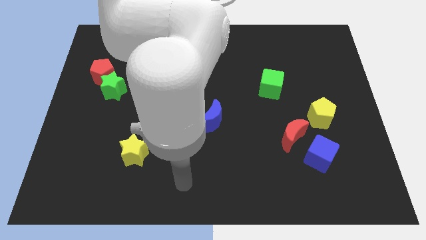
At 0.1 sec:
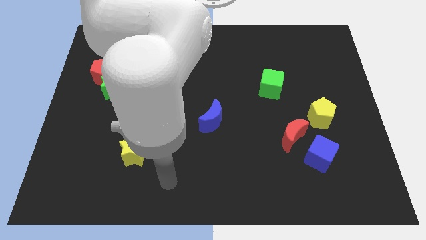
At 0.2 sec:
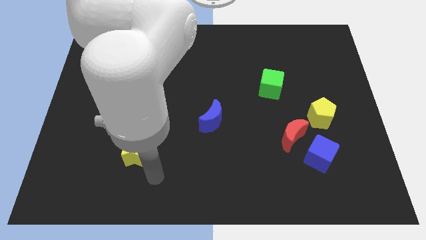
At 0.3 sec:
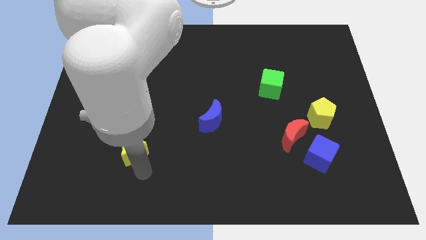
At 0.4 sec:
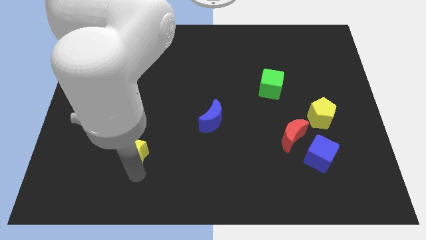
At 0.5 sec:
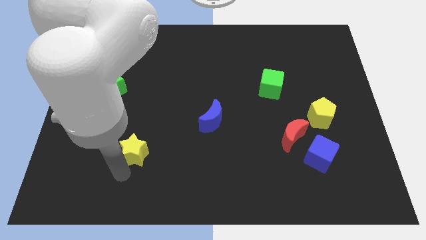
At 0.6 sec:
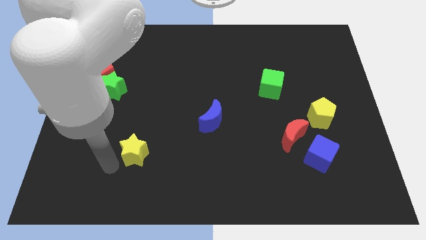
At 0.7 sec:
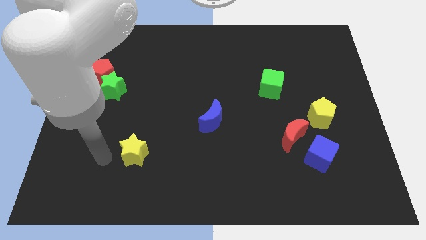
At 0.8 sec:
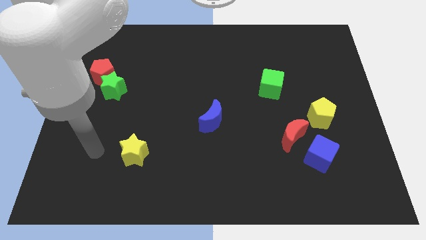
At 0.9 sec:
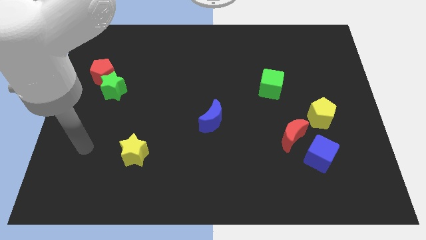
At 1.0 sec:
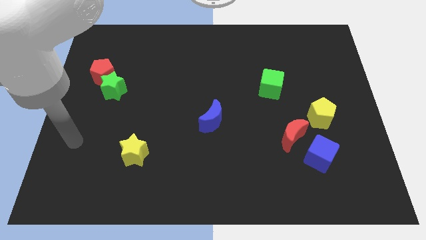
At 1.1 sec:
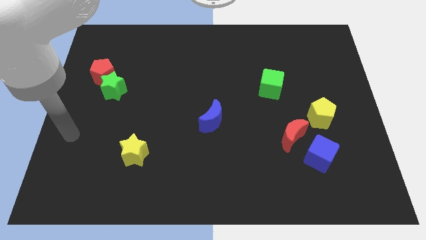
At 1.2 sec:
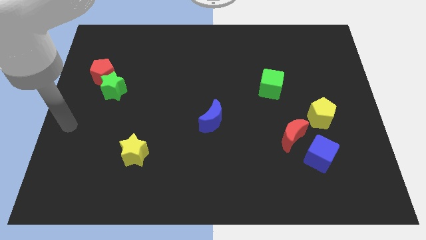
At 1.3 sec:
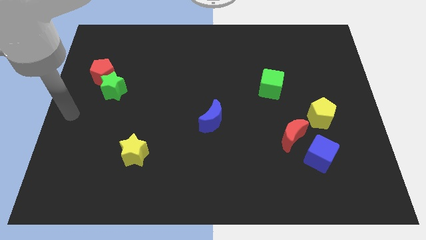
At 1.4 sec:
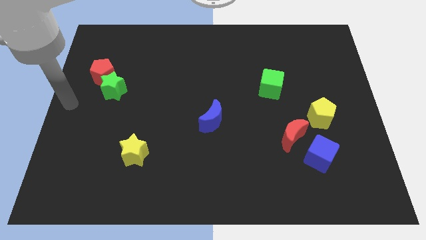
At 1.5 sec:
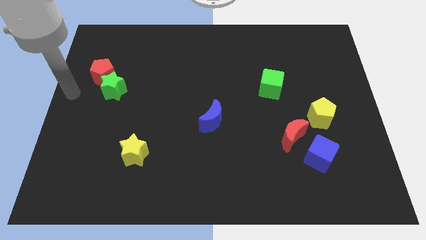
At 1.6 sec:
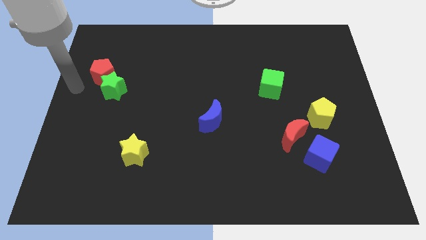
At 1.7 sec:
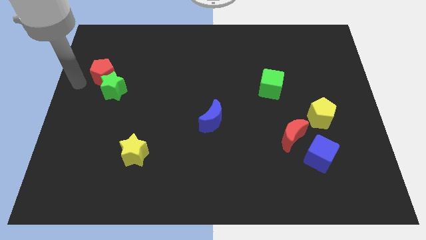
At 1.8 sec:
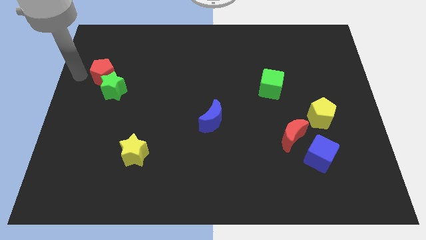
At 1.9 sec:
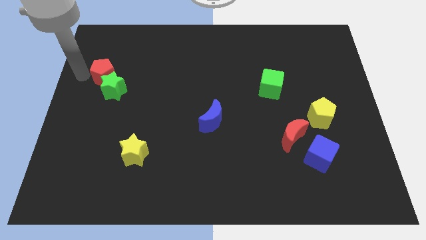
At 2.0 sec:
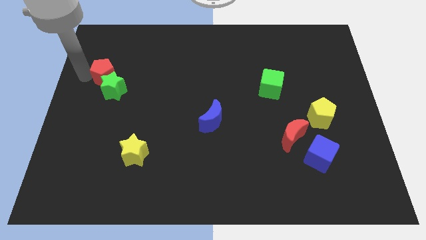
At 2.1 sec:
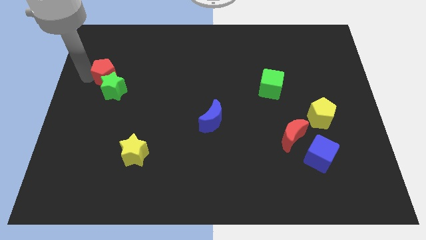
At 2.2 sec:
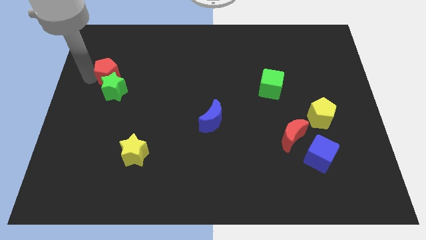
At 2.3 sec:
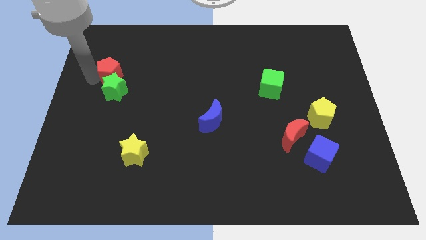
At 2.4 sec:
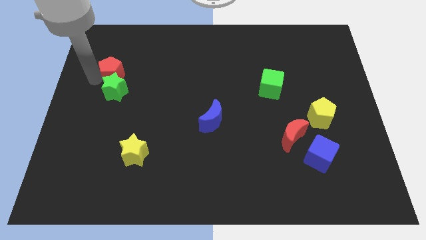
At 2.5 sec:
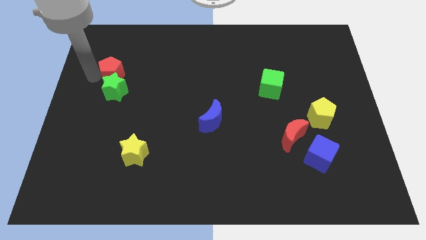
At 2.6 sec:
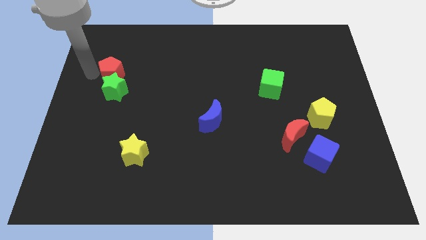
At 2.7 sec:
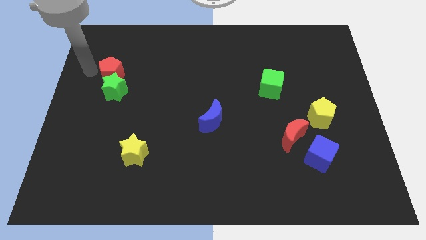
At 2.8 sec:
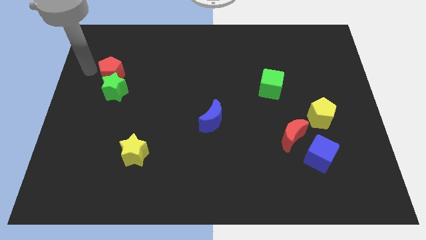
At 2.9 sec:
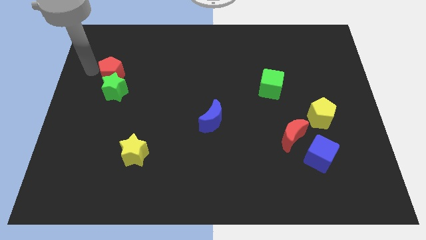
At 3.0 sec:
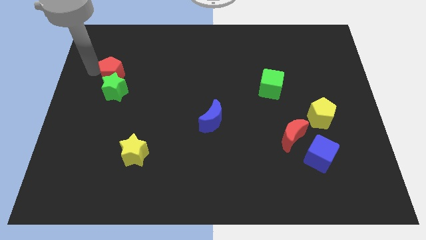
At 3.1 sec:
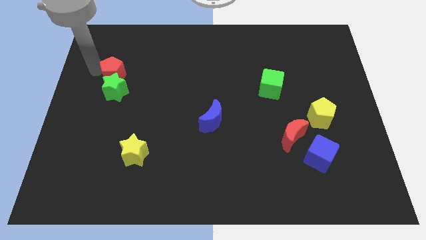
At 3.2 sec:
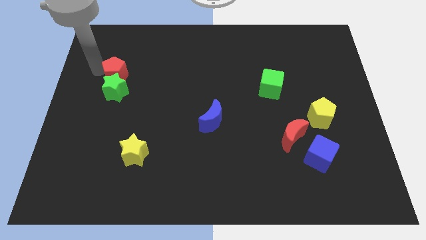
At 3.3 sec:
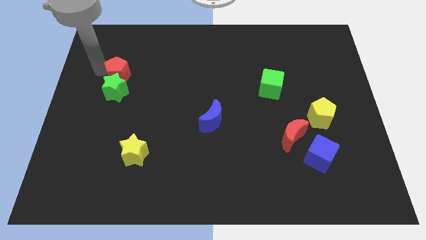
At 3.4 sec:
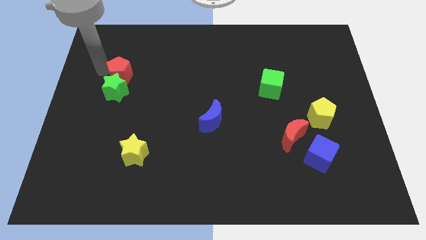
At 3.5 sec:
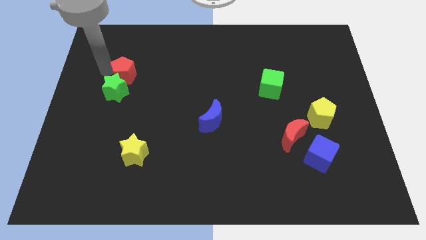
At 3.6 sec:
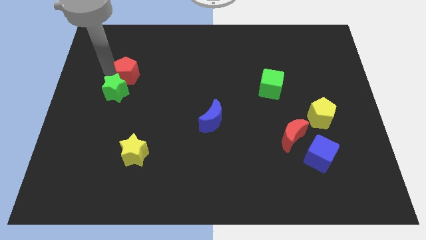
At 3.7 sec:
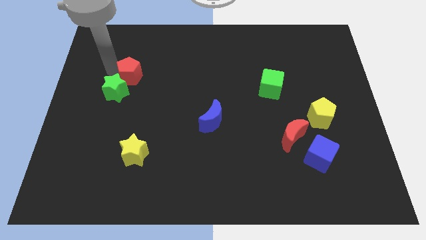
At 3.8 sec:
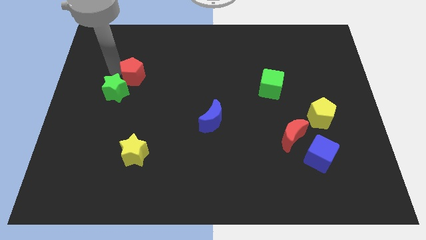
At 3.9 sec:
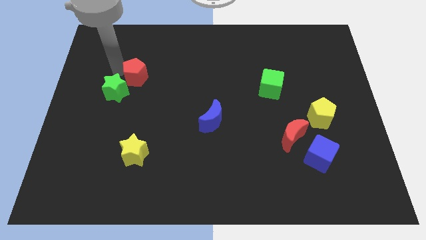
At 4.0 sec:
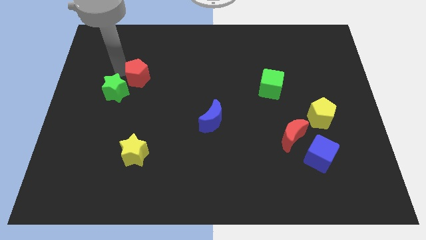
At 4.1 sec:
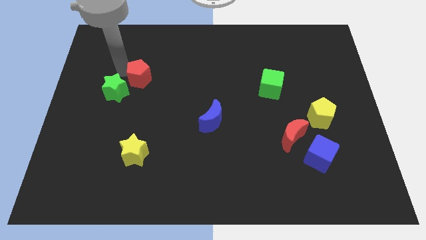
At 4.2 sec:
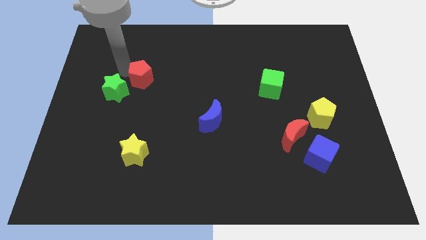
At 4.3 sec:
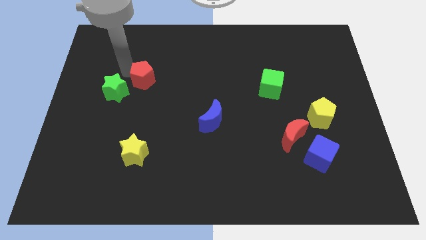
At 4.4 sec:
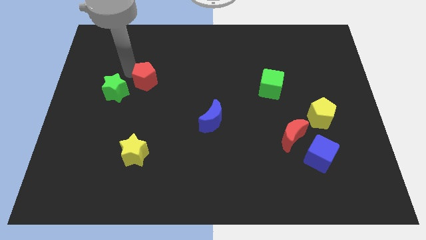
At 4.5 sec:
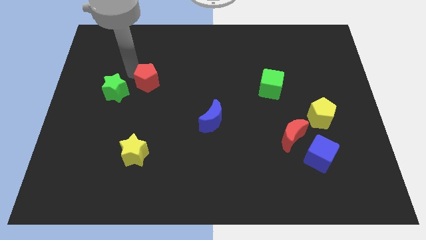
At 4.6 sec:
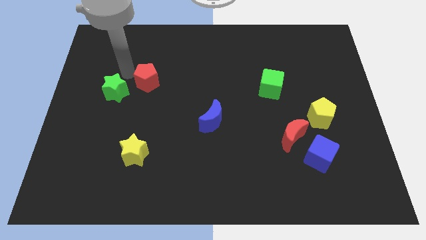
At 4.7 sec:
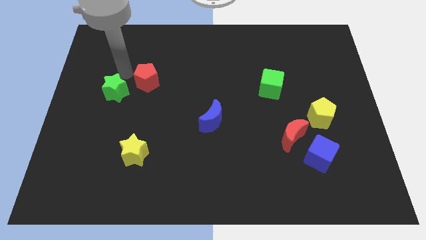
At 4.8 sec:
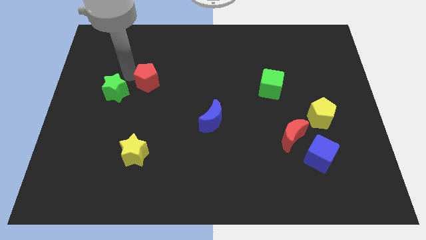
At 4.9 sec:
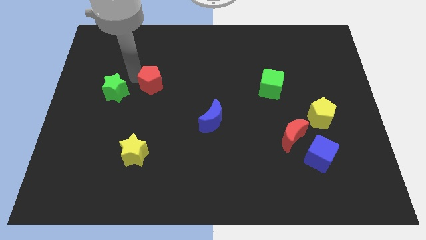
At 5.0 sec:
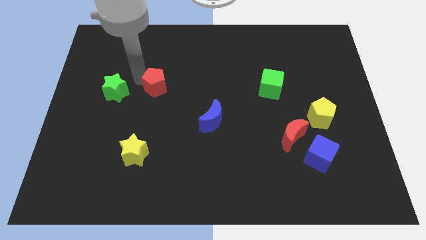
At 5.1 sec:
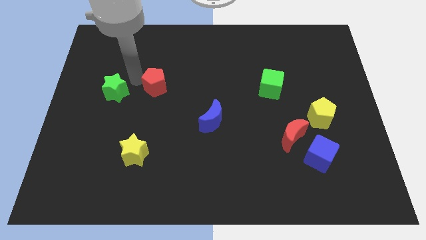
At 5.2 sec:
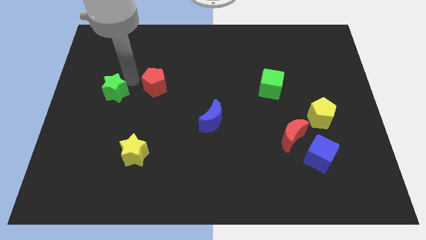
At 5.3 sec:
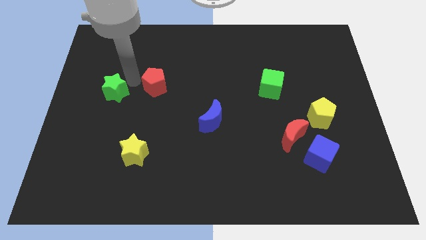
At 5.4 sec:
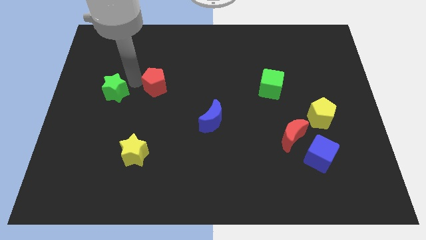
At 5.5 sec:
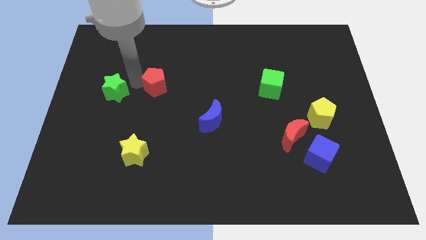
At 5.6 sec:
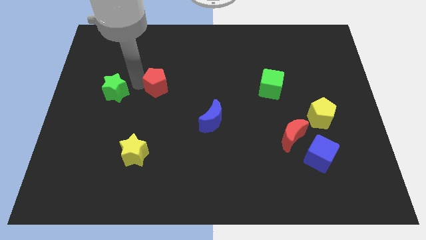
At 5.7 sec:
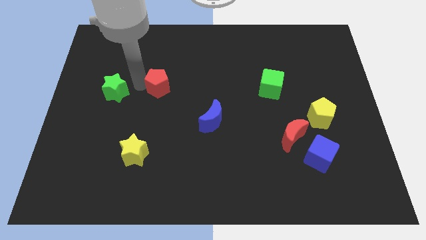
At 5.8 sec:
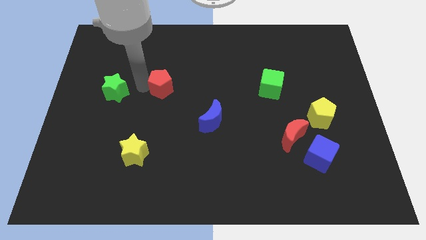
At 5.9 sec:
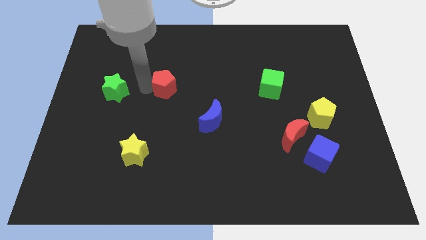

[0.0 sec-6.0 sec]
move the red pentagon to the middle
